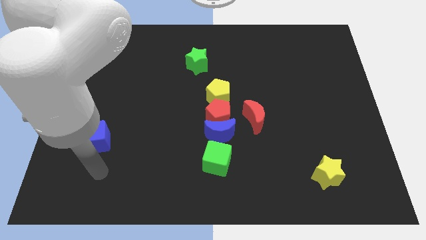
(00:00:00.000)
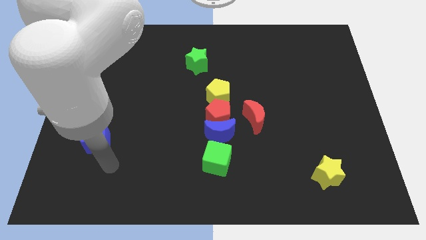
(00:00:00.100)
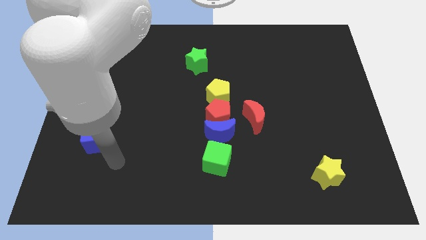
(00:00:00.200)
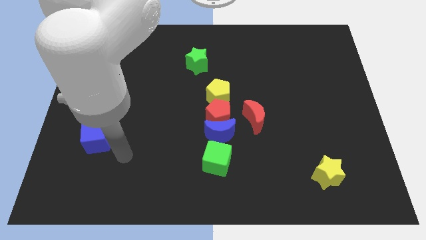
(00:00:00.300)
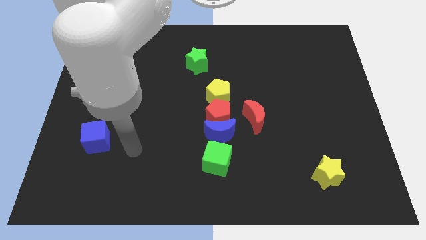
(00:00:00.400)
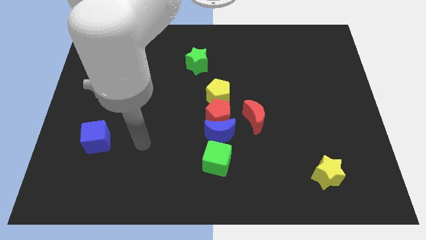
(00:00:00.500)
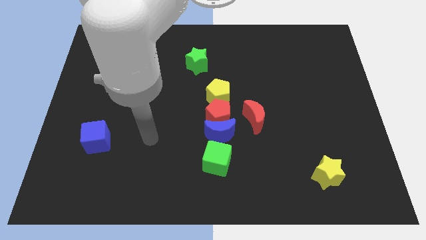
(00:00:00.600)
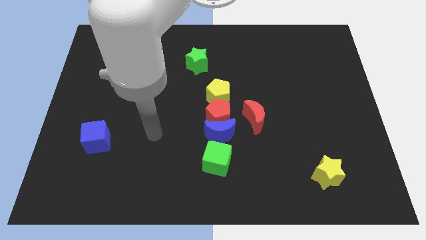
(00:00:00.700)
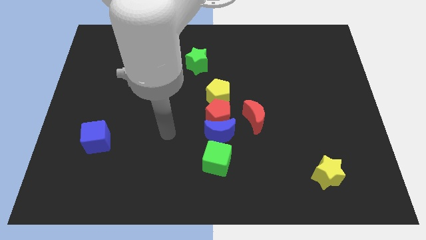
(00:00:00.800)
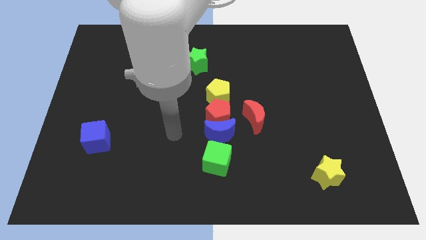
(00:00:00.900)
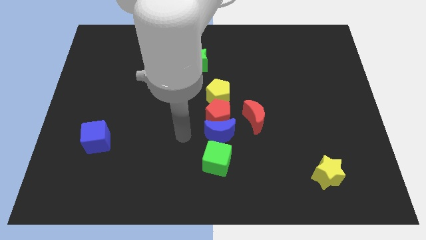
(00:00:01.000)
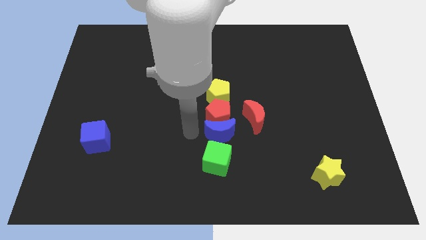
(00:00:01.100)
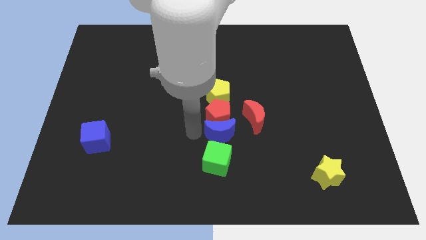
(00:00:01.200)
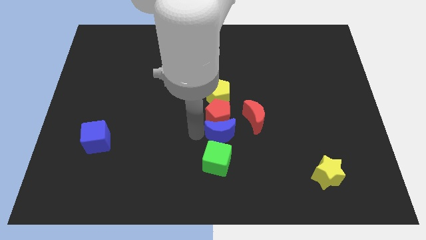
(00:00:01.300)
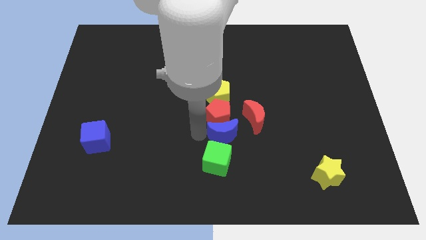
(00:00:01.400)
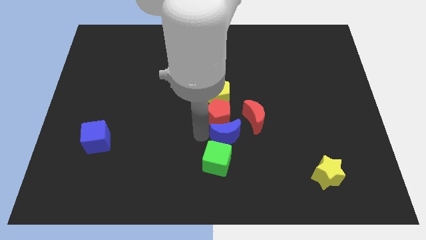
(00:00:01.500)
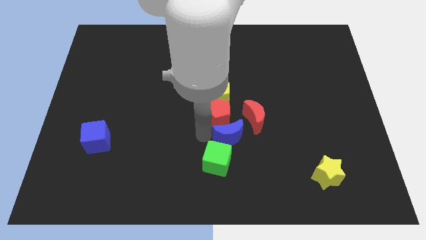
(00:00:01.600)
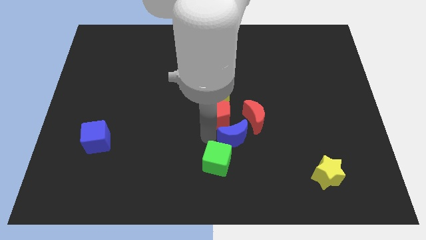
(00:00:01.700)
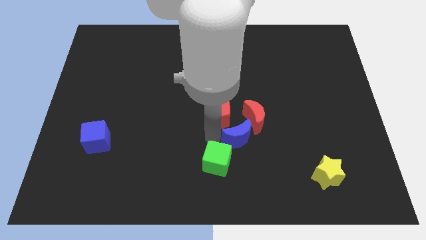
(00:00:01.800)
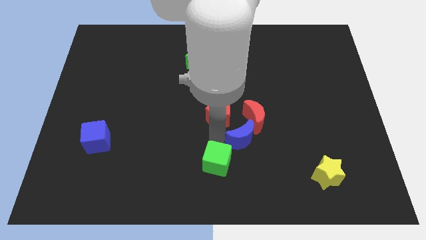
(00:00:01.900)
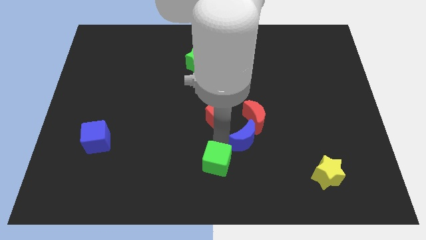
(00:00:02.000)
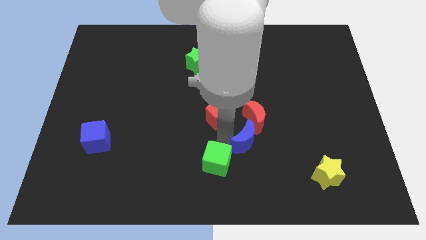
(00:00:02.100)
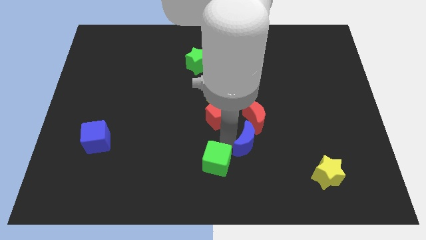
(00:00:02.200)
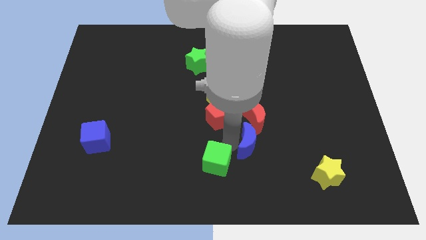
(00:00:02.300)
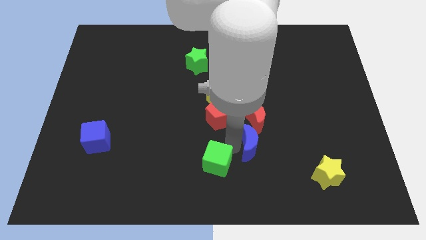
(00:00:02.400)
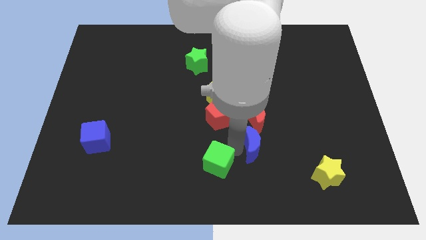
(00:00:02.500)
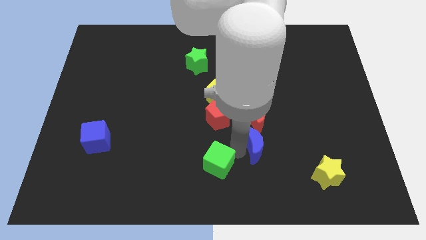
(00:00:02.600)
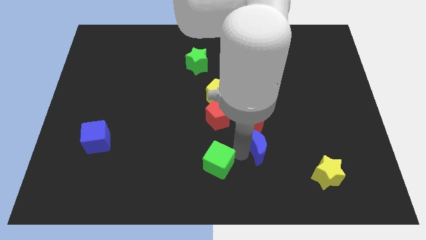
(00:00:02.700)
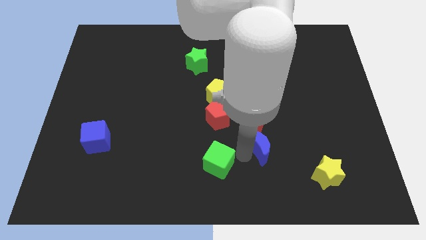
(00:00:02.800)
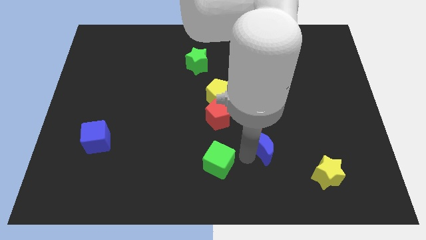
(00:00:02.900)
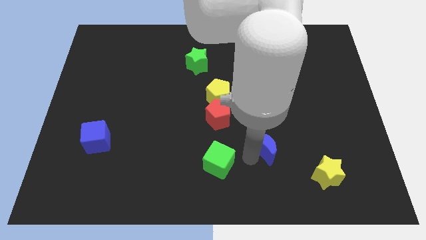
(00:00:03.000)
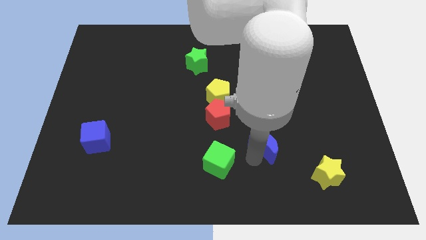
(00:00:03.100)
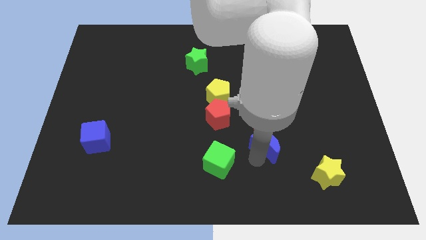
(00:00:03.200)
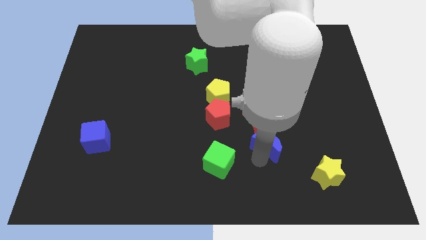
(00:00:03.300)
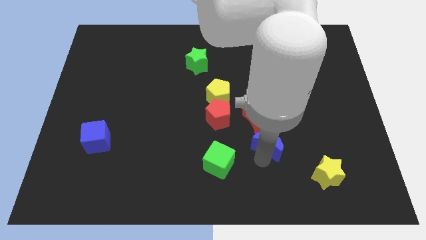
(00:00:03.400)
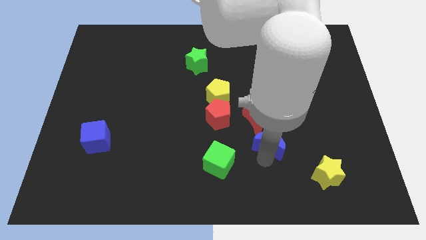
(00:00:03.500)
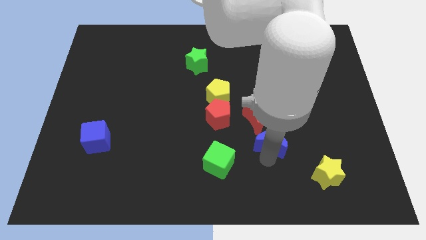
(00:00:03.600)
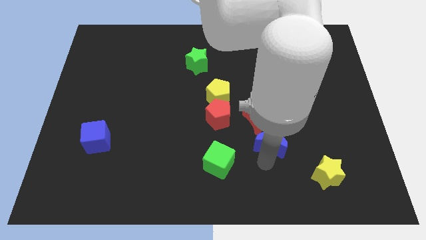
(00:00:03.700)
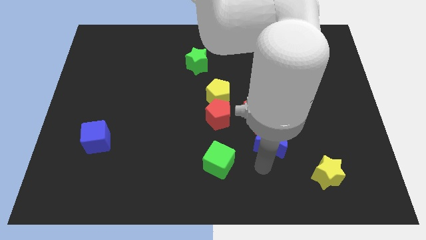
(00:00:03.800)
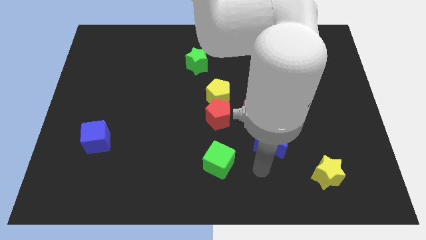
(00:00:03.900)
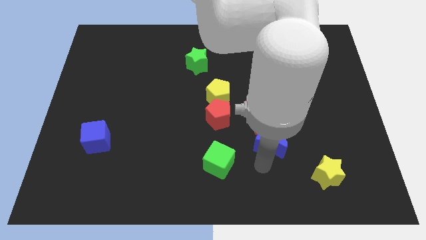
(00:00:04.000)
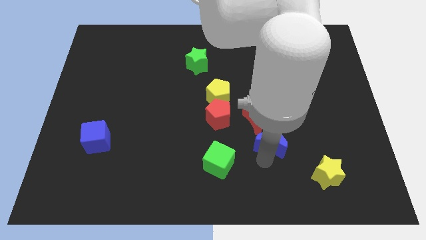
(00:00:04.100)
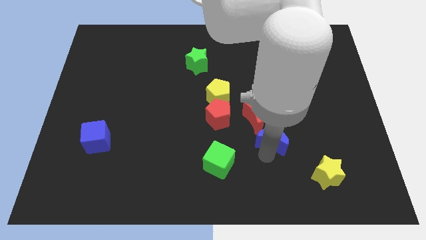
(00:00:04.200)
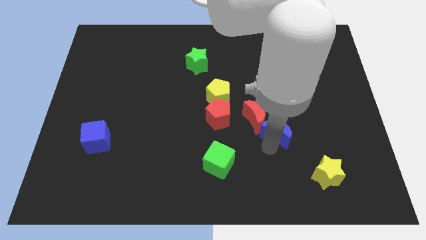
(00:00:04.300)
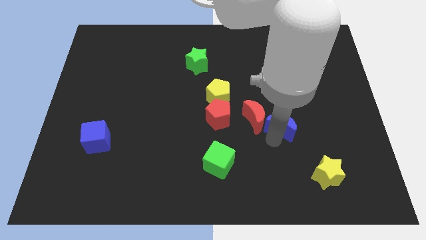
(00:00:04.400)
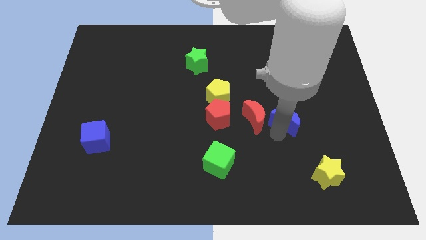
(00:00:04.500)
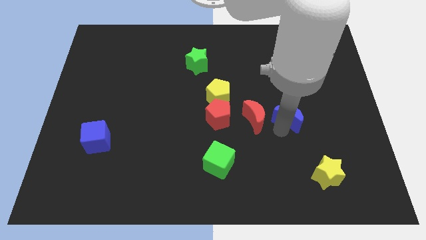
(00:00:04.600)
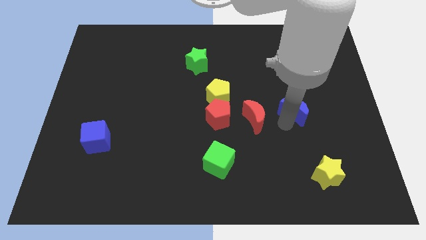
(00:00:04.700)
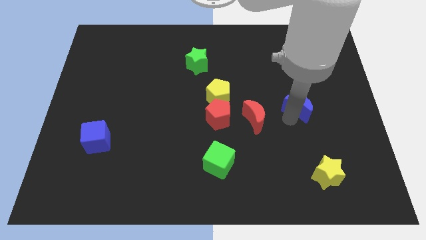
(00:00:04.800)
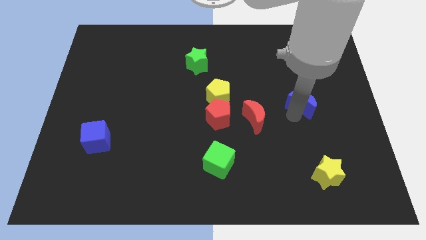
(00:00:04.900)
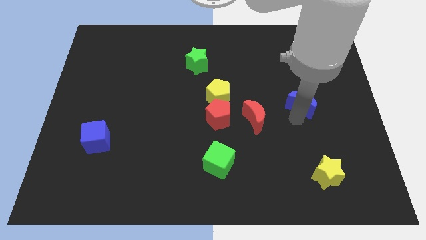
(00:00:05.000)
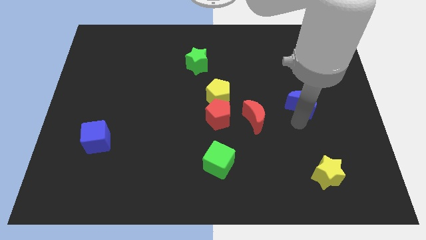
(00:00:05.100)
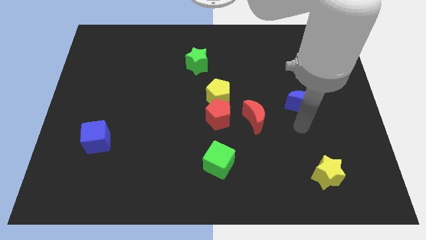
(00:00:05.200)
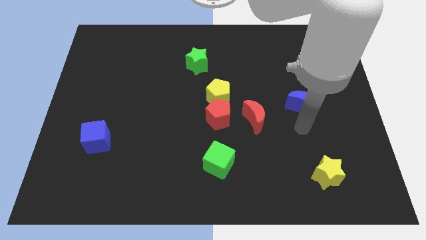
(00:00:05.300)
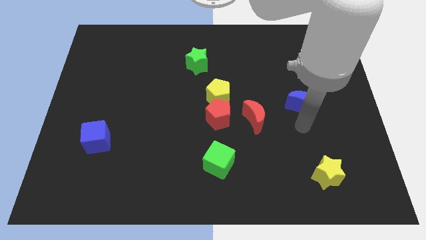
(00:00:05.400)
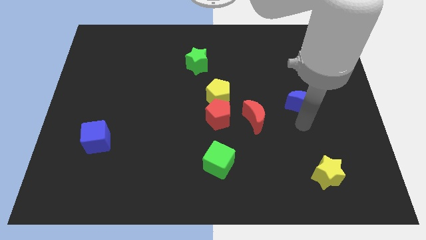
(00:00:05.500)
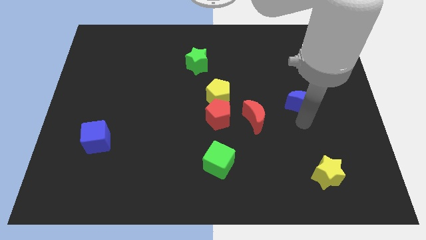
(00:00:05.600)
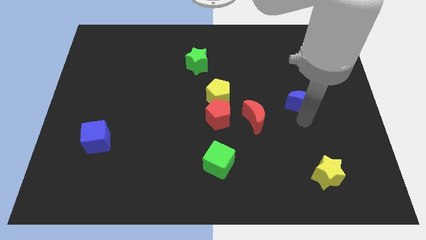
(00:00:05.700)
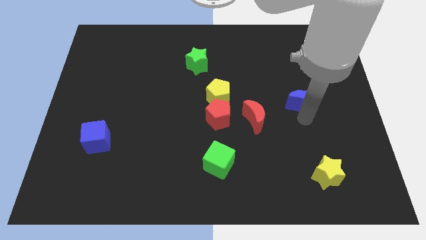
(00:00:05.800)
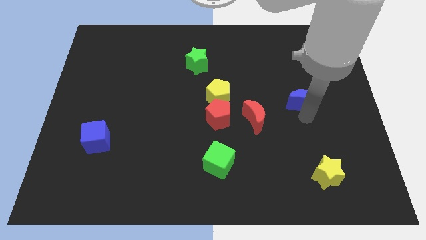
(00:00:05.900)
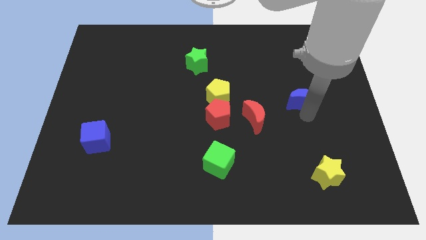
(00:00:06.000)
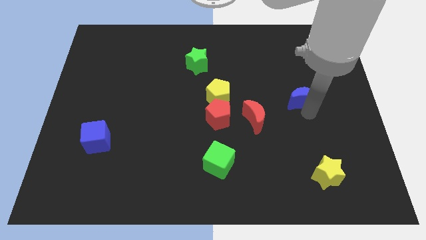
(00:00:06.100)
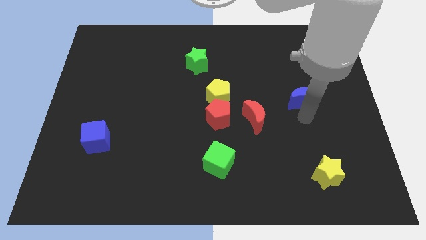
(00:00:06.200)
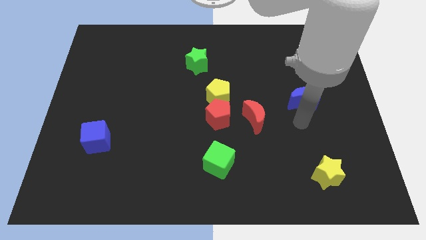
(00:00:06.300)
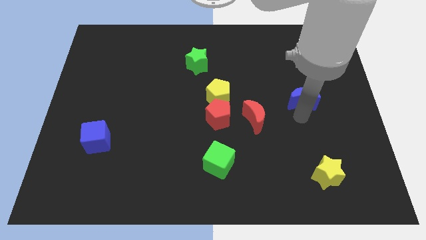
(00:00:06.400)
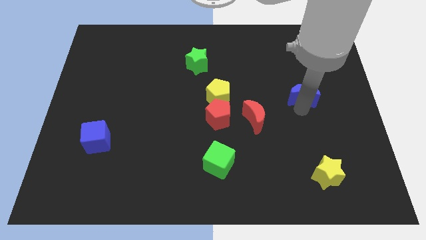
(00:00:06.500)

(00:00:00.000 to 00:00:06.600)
push the blue moon up and right diagonally

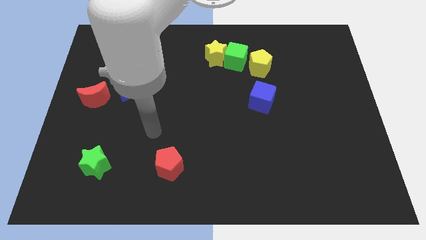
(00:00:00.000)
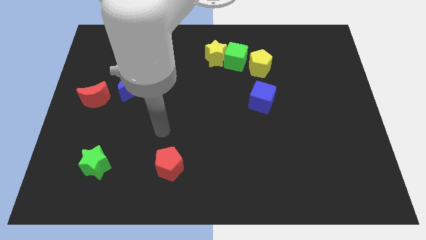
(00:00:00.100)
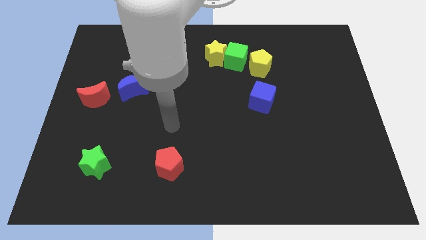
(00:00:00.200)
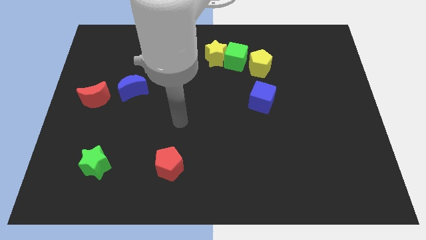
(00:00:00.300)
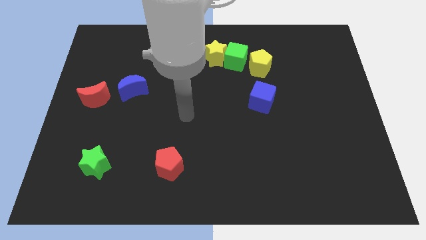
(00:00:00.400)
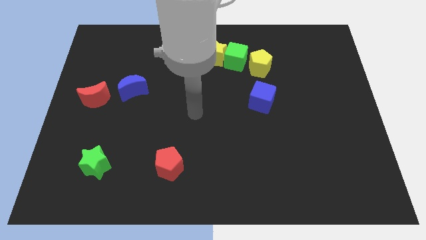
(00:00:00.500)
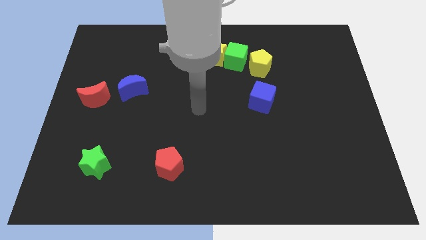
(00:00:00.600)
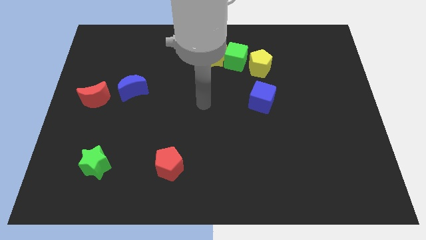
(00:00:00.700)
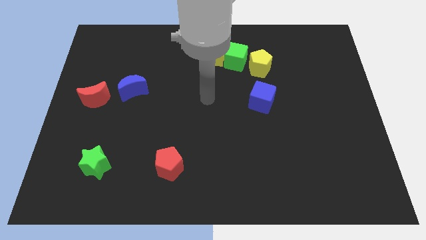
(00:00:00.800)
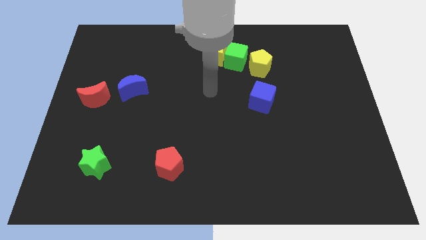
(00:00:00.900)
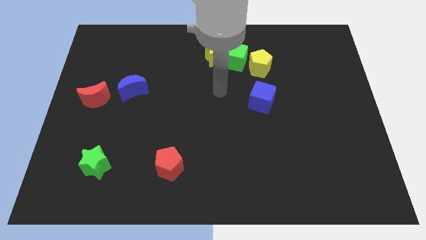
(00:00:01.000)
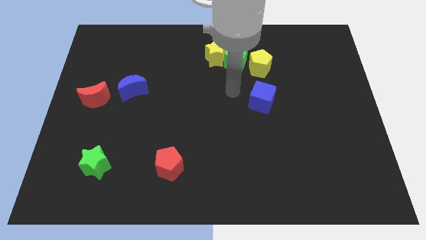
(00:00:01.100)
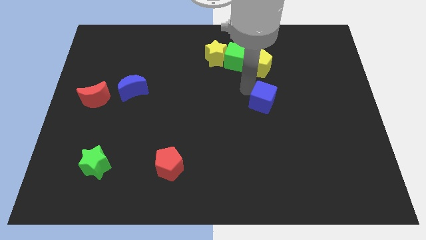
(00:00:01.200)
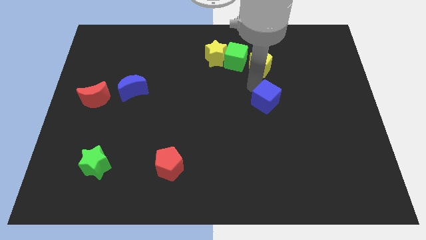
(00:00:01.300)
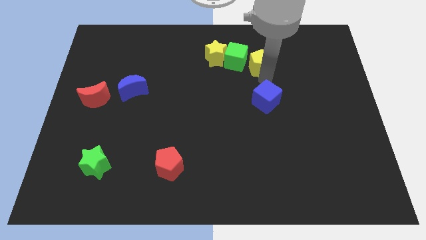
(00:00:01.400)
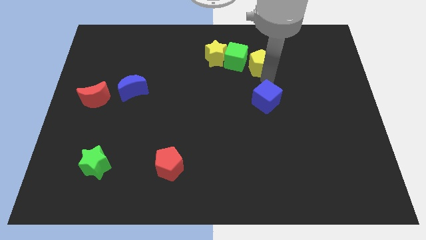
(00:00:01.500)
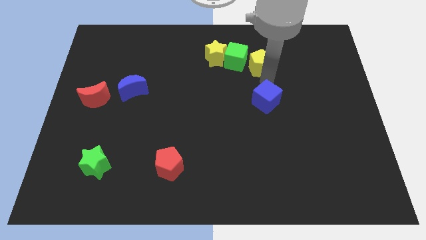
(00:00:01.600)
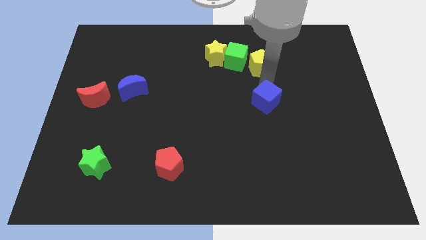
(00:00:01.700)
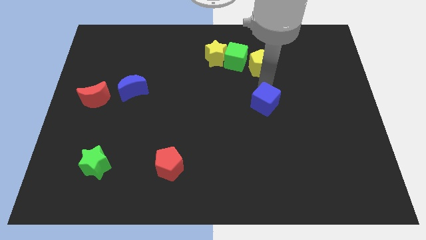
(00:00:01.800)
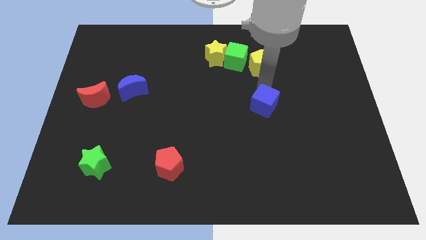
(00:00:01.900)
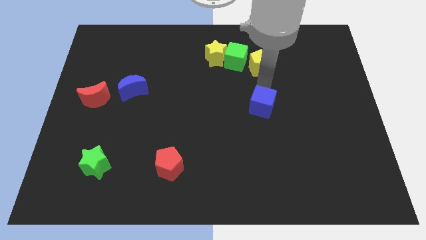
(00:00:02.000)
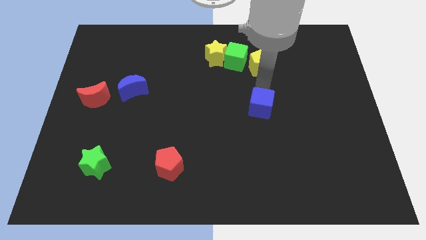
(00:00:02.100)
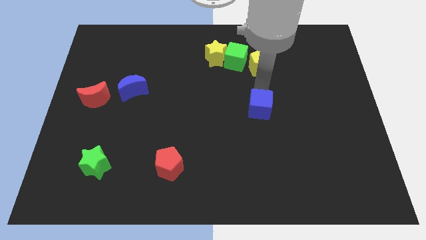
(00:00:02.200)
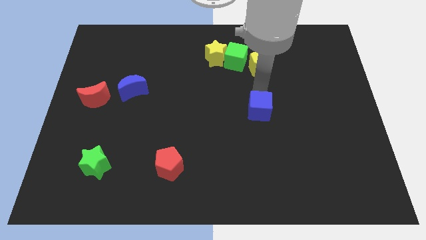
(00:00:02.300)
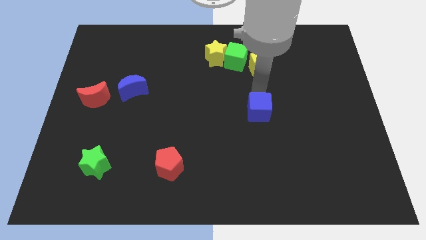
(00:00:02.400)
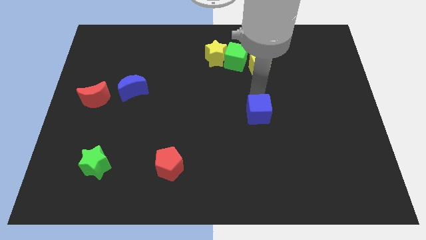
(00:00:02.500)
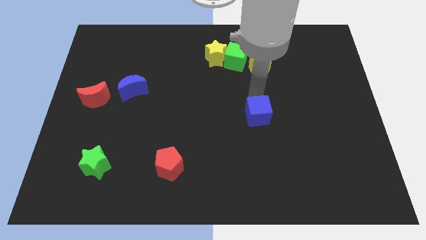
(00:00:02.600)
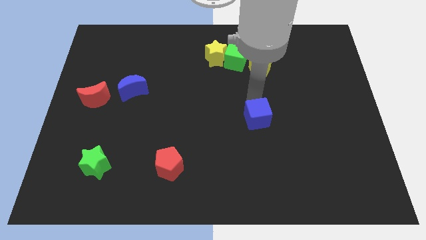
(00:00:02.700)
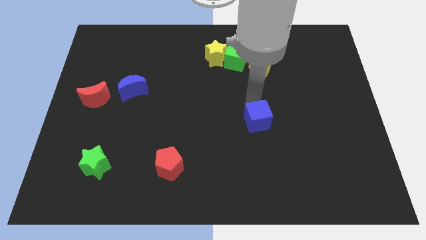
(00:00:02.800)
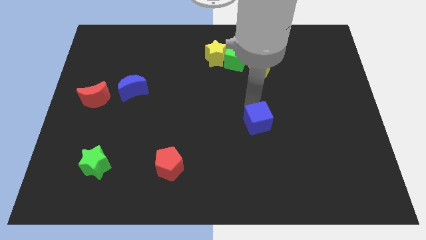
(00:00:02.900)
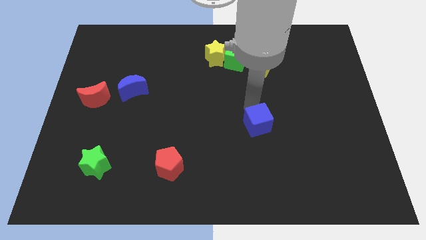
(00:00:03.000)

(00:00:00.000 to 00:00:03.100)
slightly slide the blue cube down
